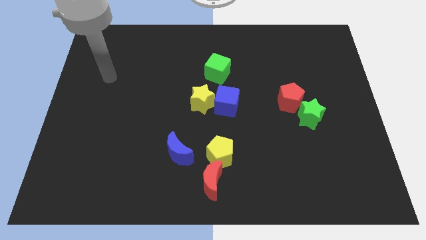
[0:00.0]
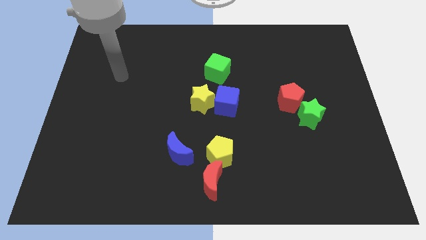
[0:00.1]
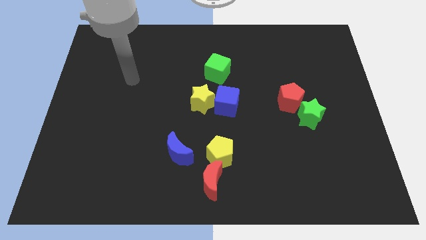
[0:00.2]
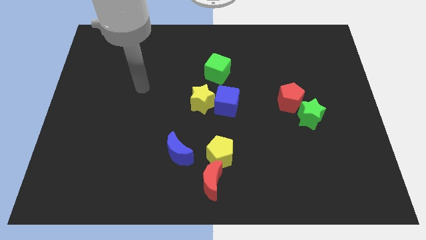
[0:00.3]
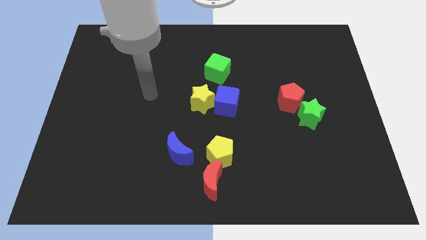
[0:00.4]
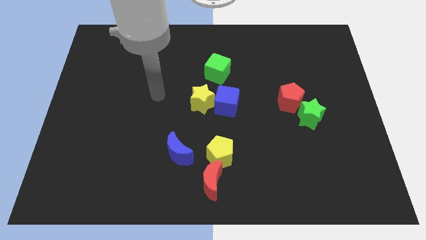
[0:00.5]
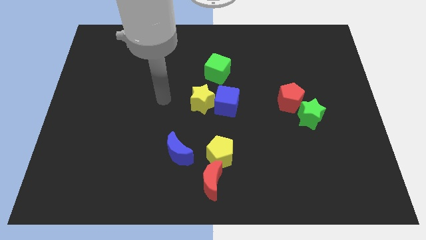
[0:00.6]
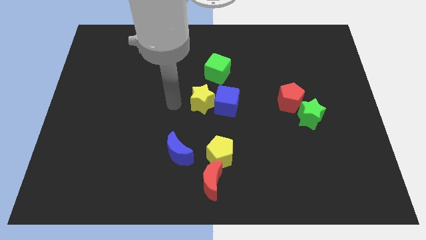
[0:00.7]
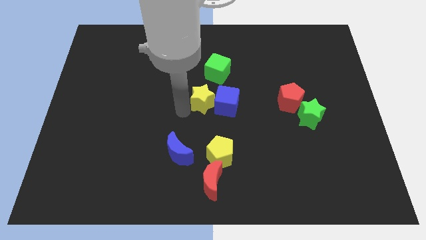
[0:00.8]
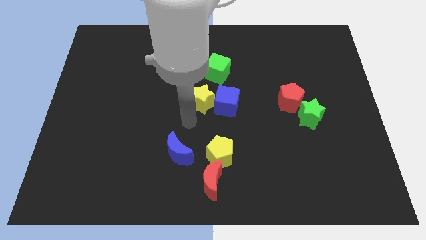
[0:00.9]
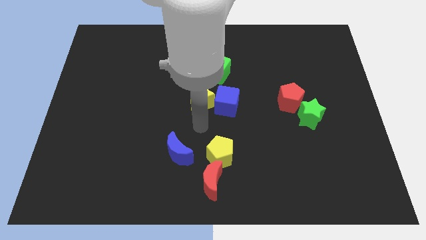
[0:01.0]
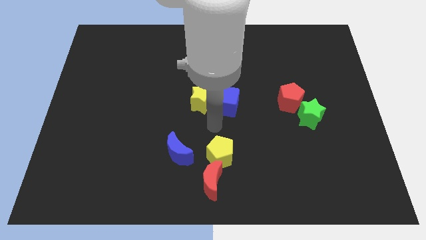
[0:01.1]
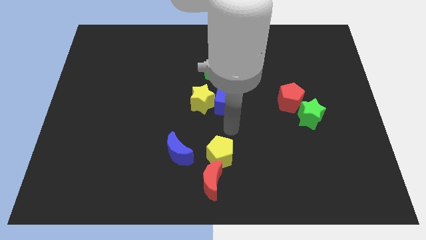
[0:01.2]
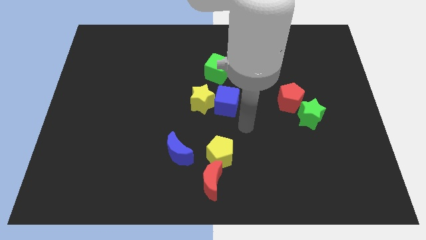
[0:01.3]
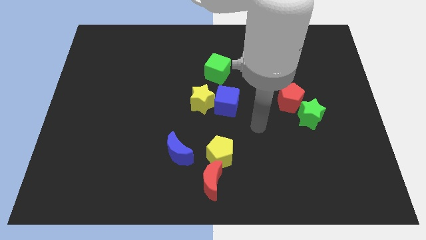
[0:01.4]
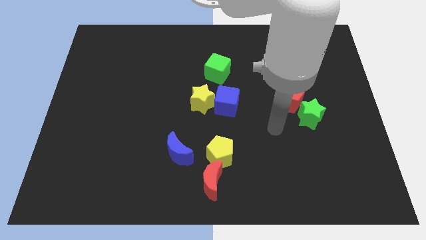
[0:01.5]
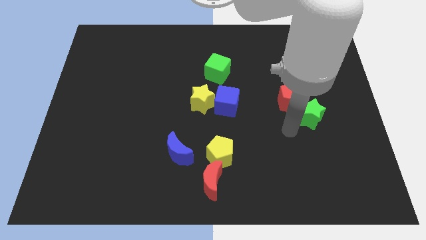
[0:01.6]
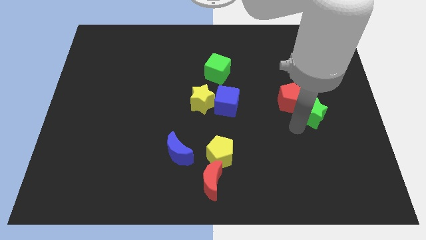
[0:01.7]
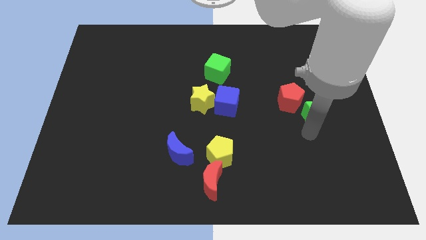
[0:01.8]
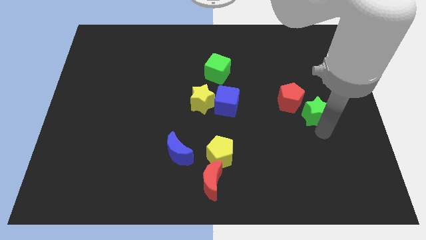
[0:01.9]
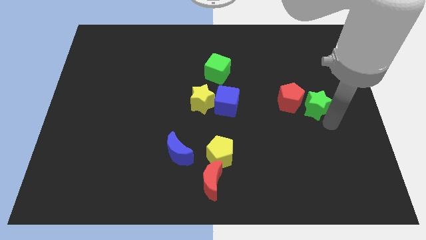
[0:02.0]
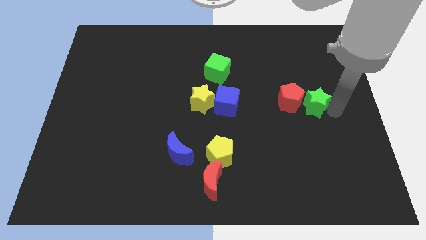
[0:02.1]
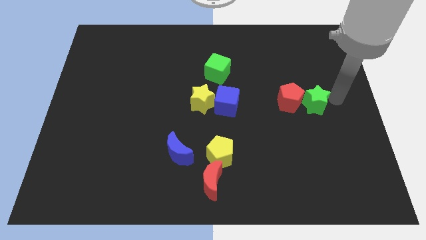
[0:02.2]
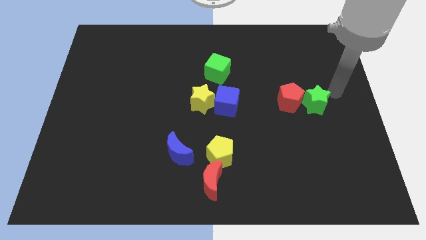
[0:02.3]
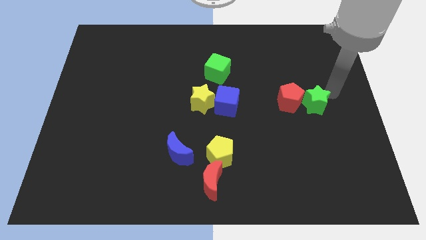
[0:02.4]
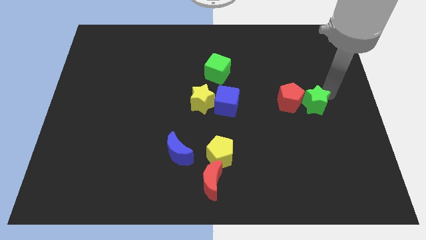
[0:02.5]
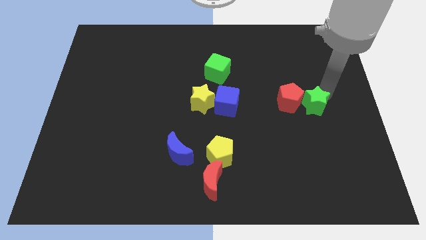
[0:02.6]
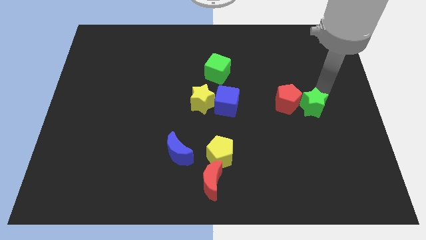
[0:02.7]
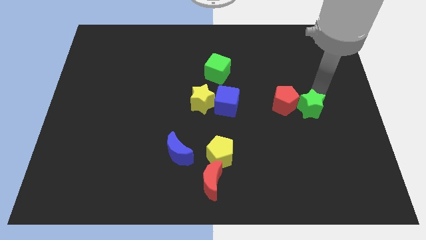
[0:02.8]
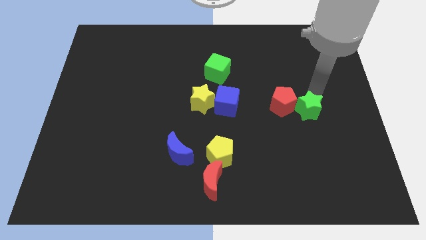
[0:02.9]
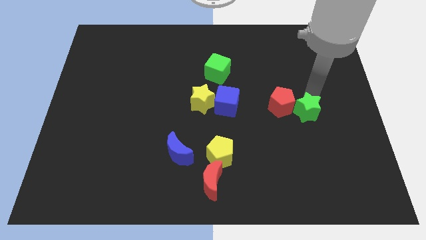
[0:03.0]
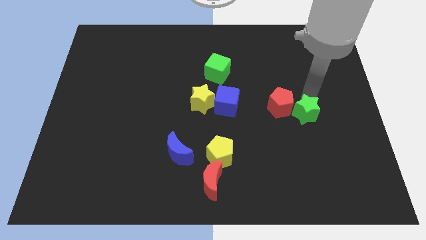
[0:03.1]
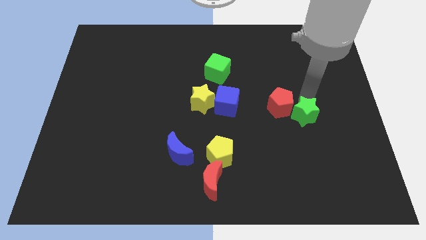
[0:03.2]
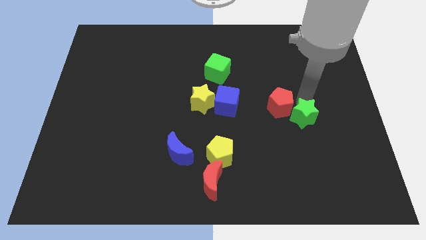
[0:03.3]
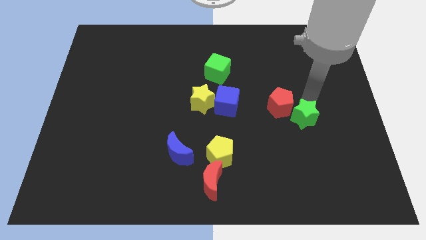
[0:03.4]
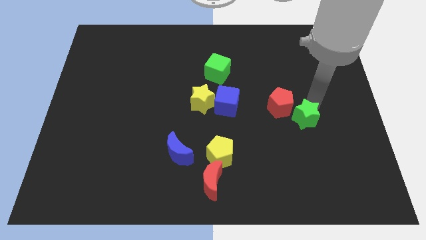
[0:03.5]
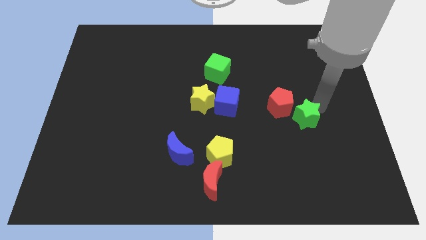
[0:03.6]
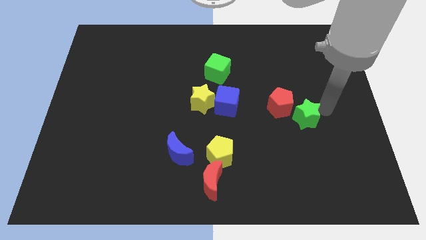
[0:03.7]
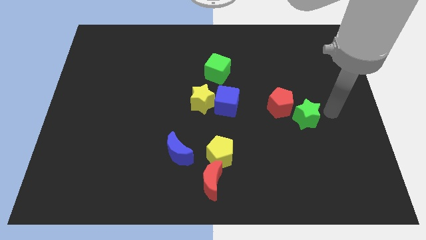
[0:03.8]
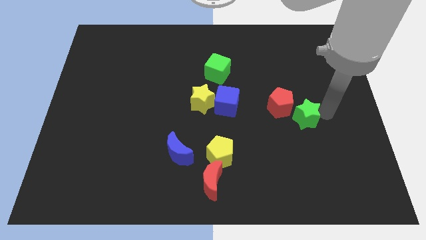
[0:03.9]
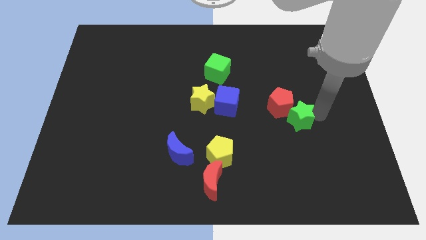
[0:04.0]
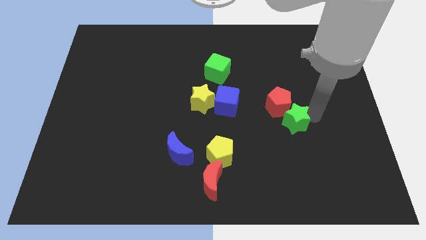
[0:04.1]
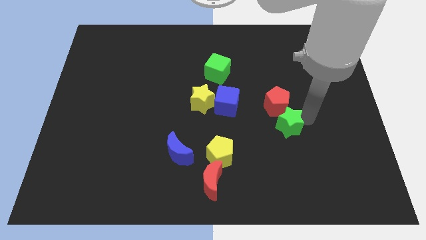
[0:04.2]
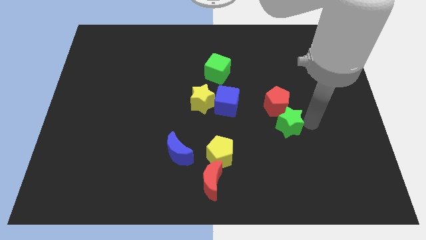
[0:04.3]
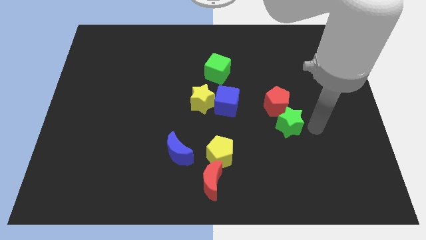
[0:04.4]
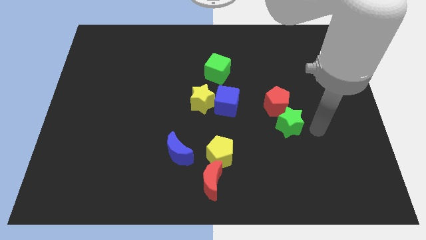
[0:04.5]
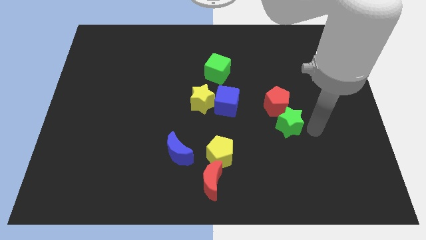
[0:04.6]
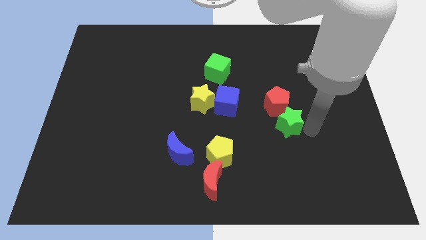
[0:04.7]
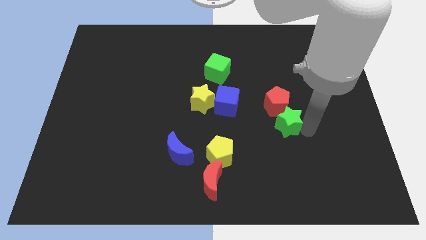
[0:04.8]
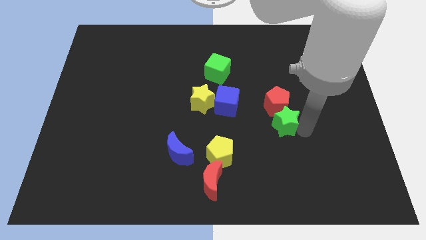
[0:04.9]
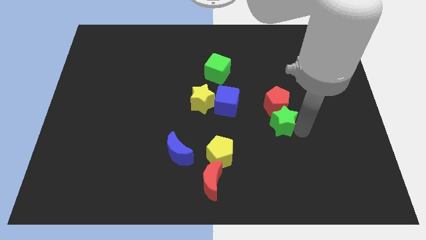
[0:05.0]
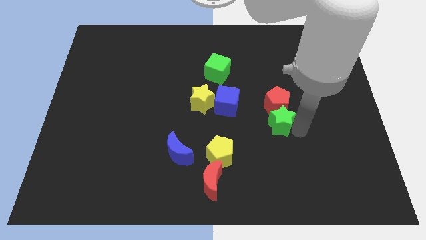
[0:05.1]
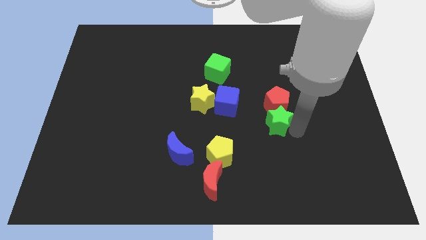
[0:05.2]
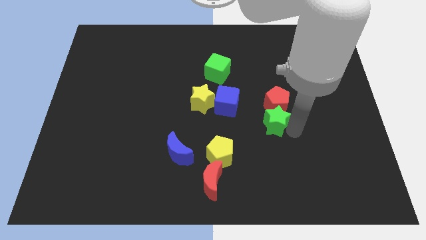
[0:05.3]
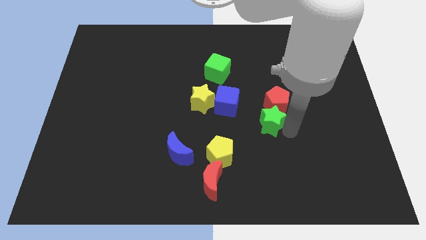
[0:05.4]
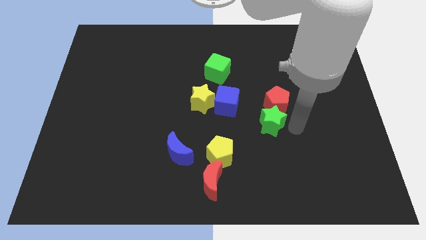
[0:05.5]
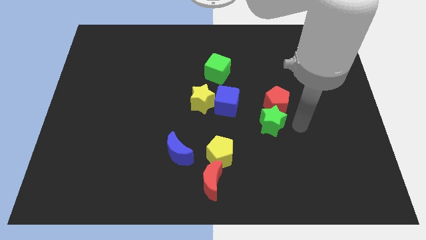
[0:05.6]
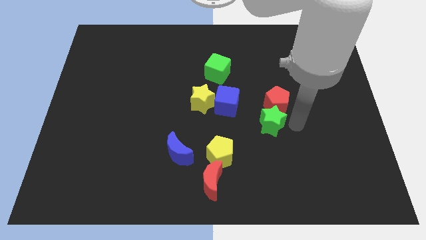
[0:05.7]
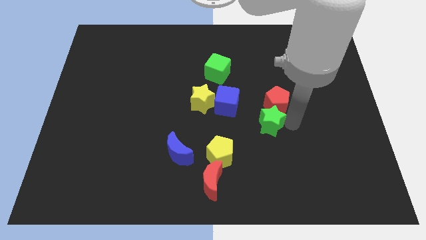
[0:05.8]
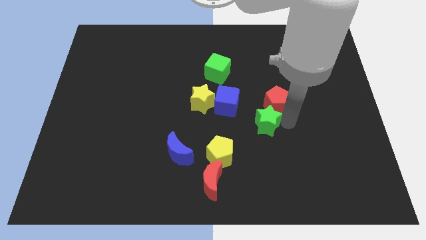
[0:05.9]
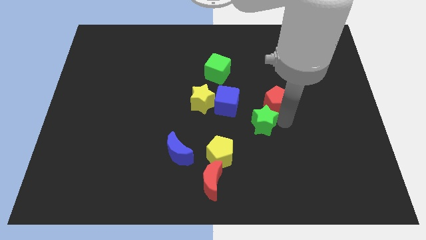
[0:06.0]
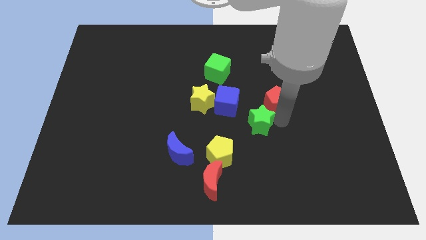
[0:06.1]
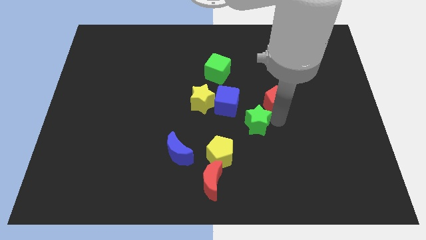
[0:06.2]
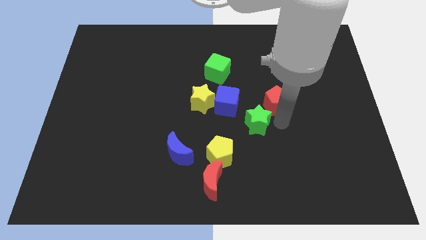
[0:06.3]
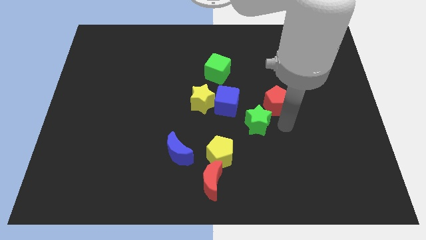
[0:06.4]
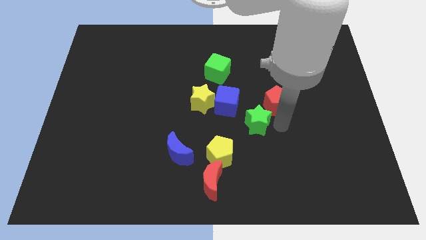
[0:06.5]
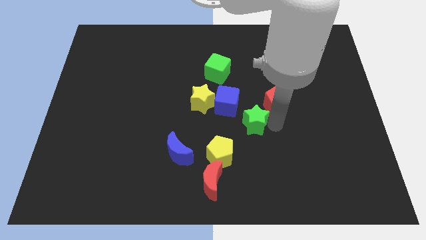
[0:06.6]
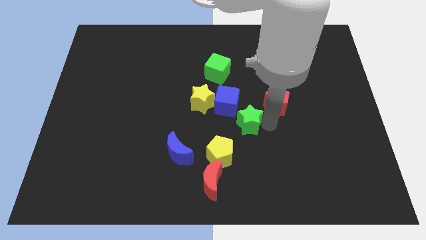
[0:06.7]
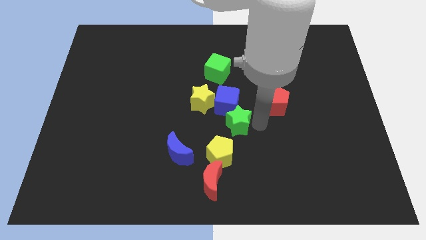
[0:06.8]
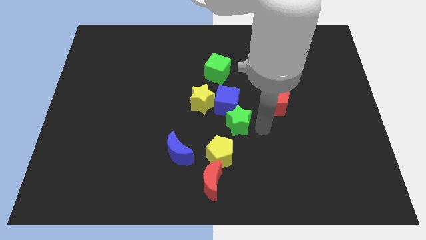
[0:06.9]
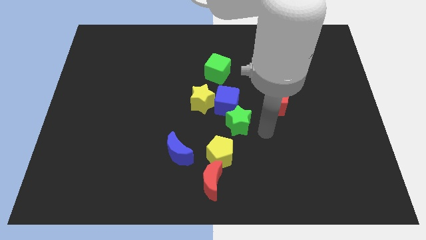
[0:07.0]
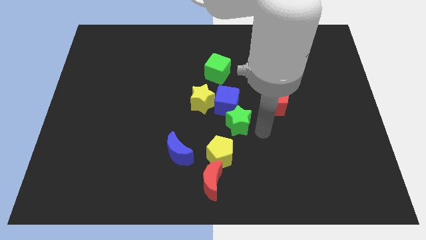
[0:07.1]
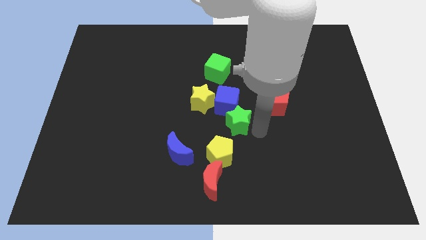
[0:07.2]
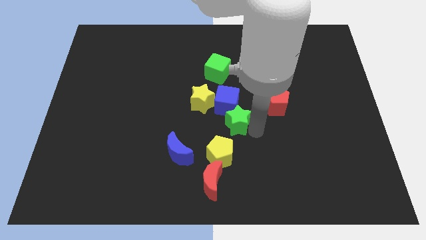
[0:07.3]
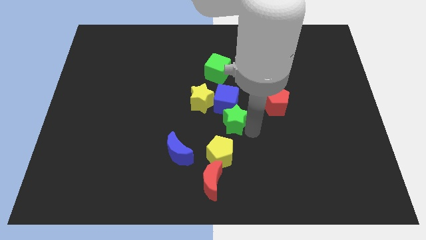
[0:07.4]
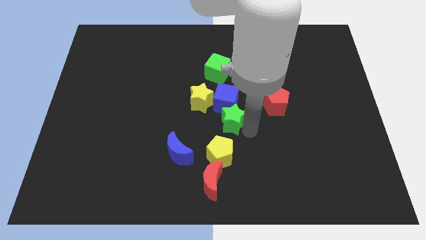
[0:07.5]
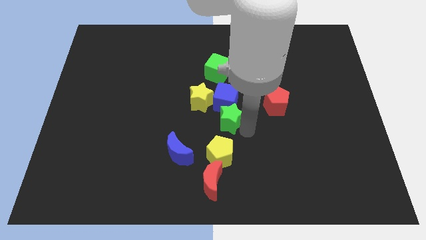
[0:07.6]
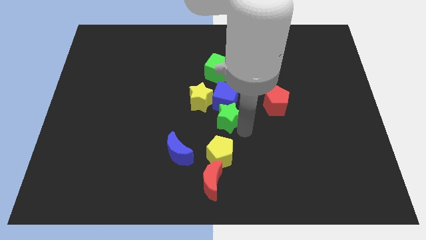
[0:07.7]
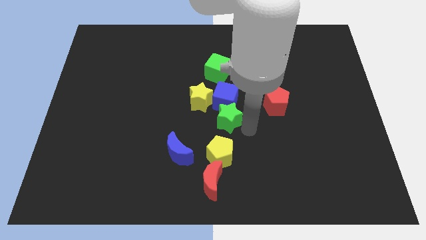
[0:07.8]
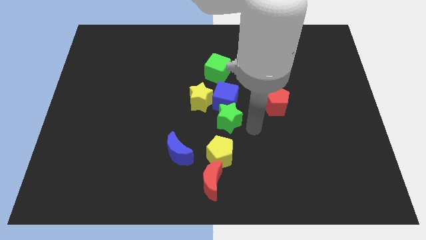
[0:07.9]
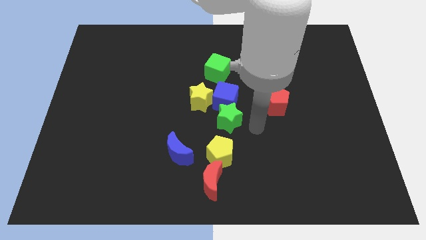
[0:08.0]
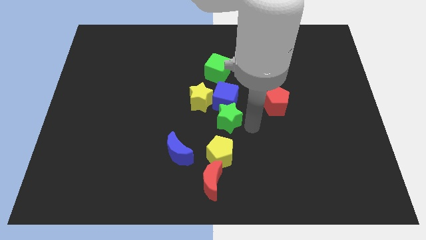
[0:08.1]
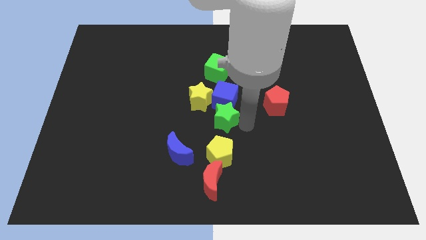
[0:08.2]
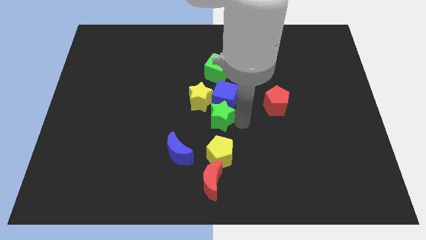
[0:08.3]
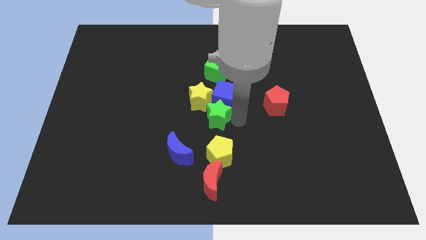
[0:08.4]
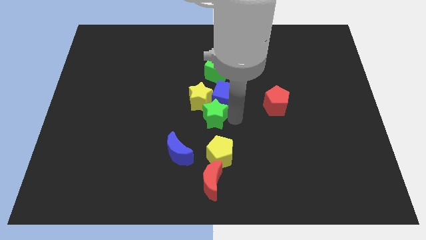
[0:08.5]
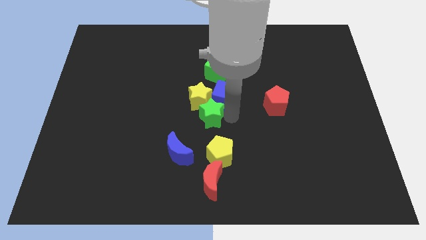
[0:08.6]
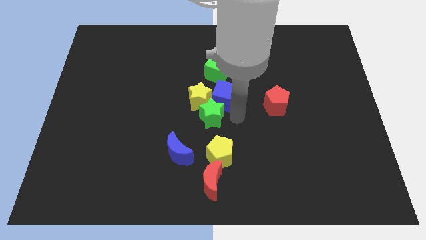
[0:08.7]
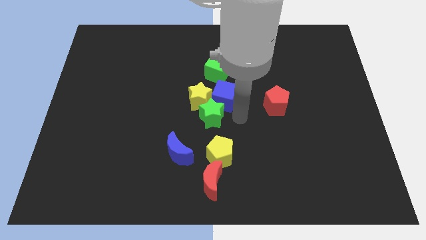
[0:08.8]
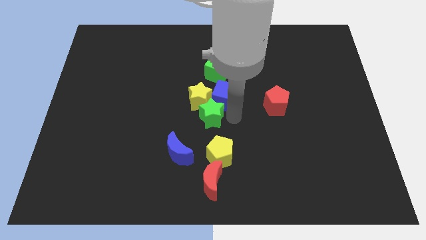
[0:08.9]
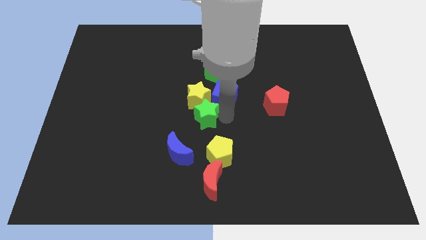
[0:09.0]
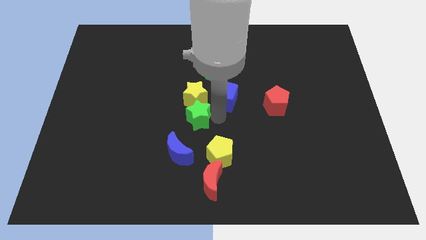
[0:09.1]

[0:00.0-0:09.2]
move the green star to the top of the blue moon
